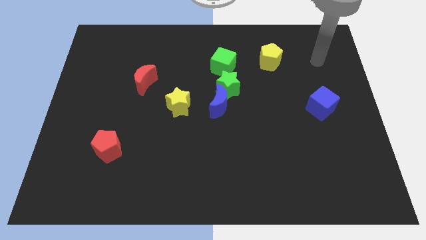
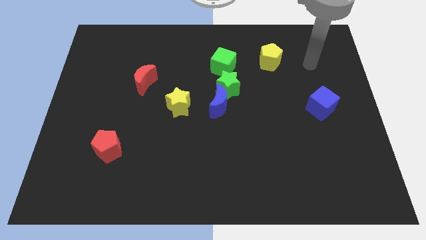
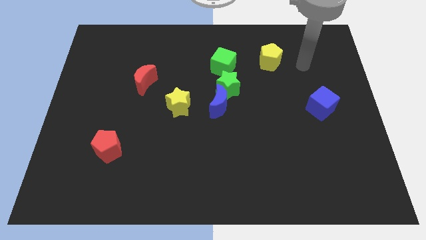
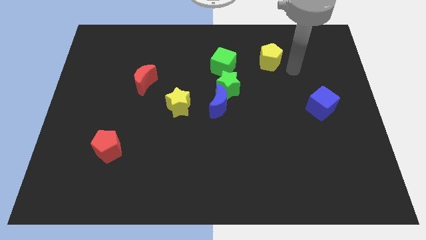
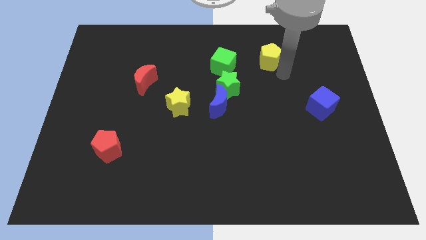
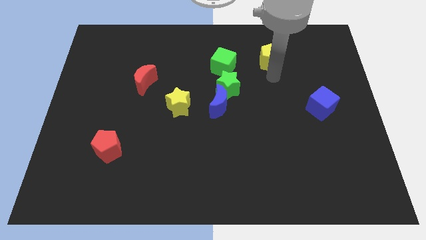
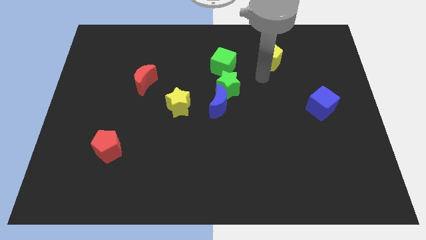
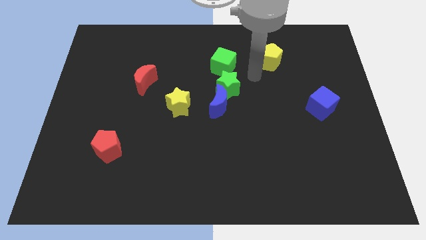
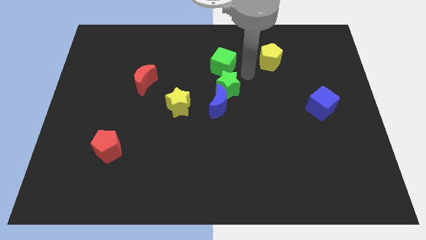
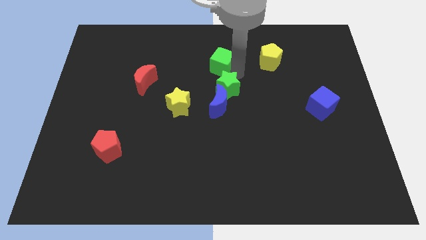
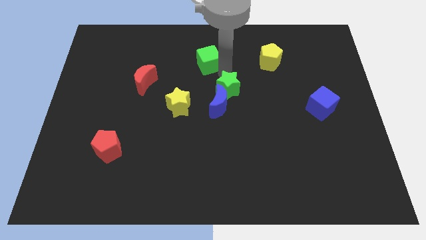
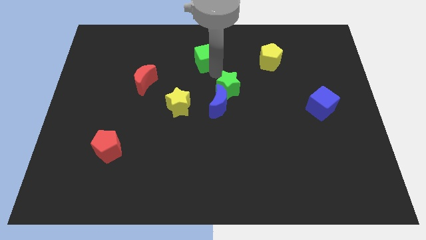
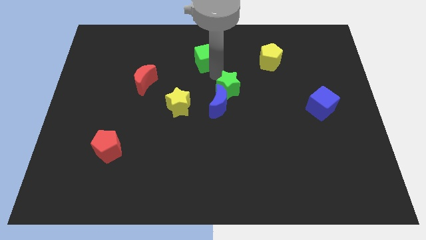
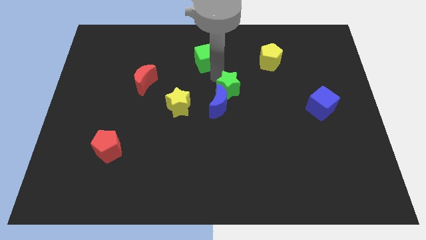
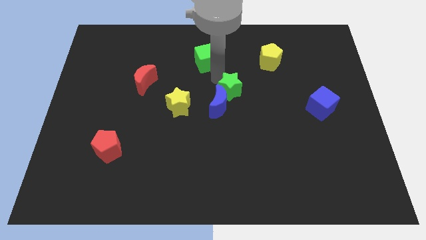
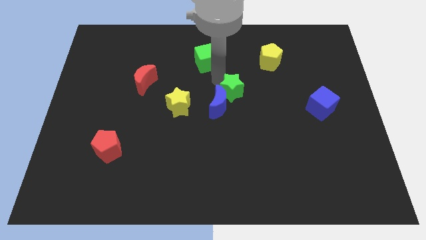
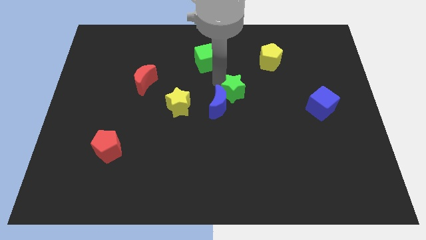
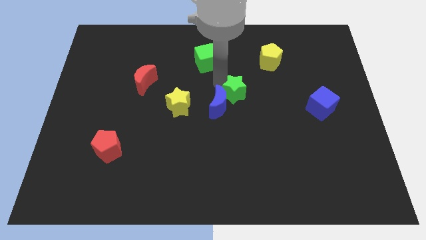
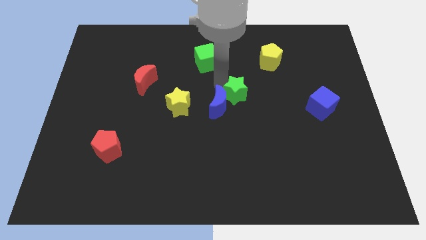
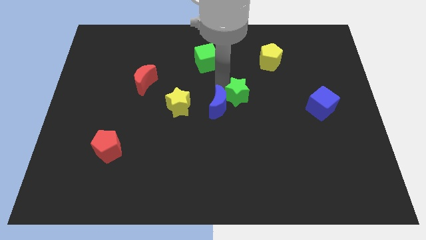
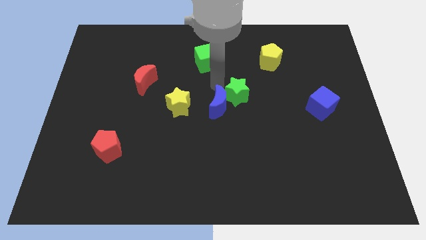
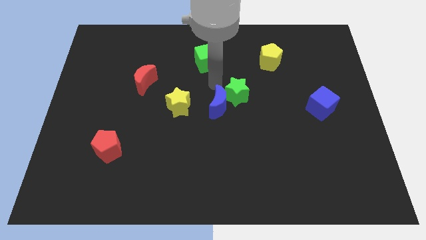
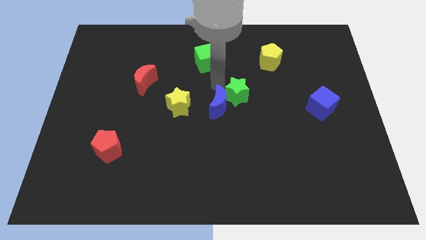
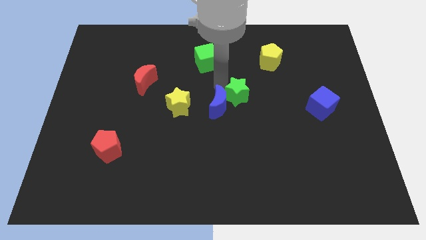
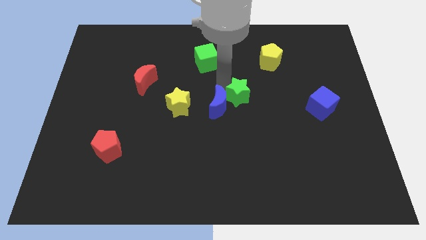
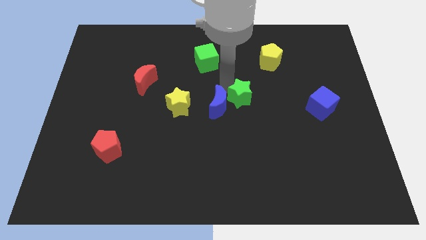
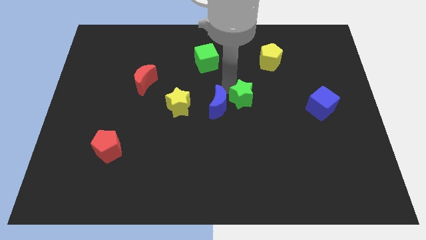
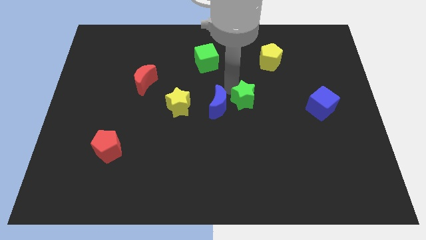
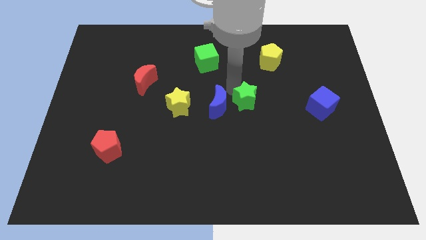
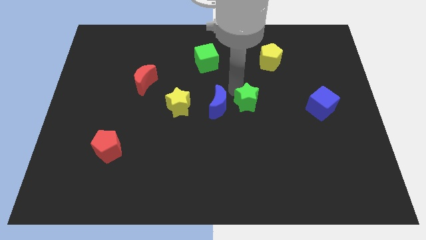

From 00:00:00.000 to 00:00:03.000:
separate the green star from the blue moon and green cube

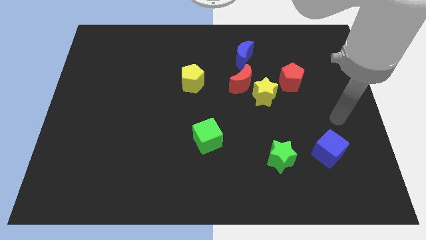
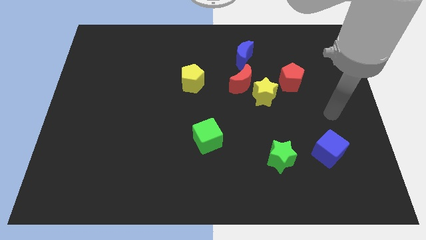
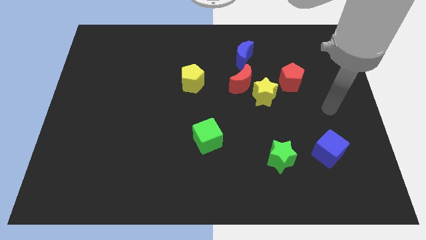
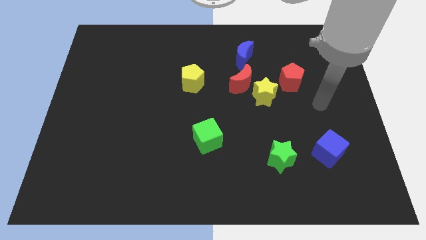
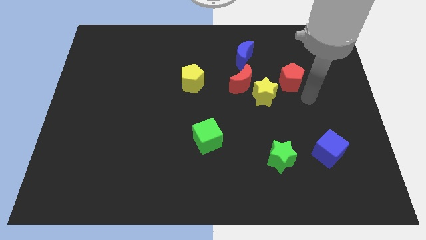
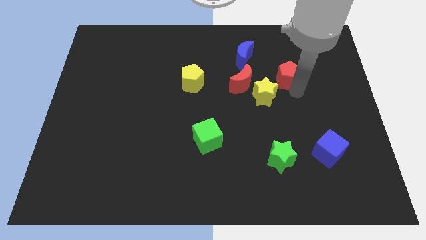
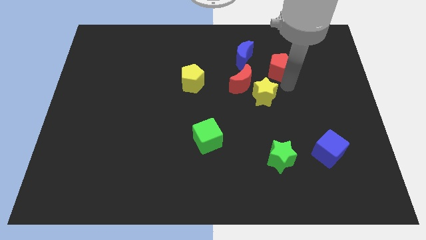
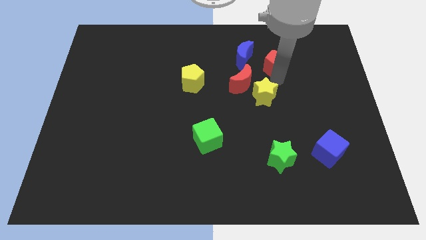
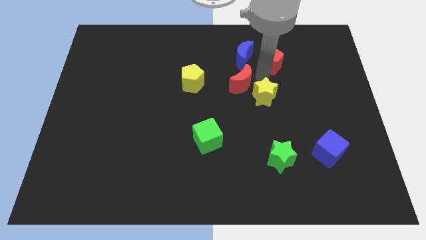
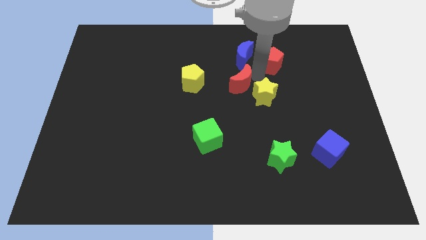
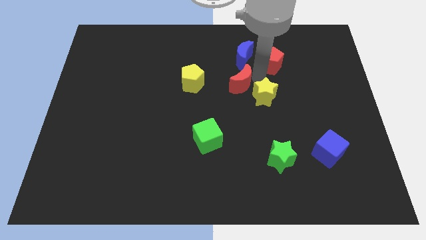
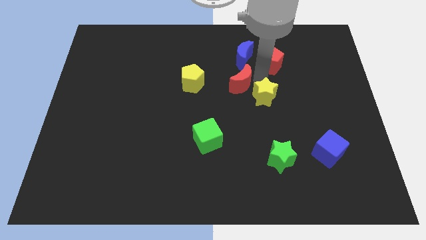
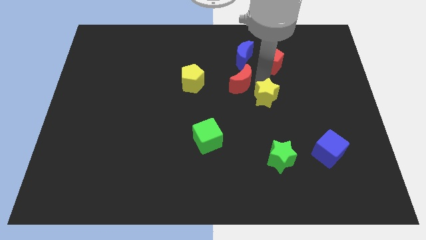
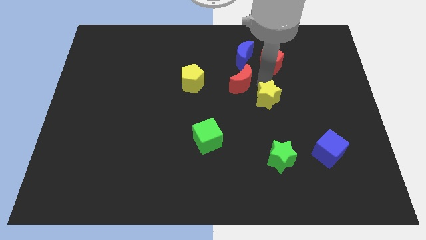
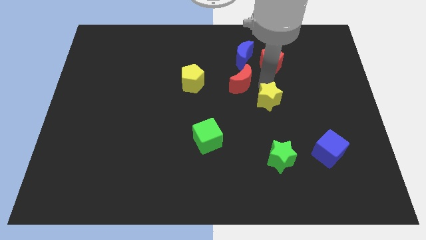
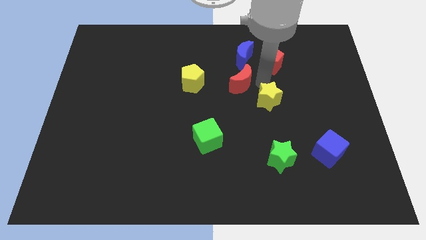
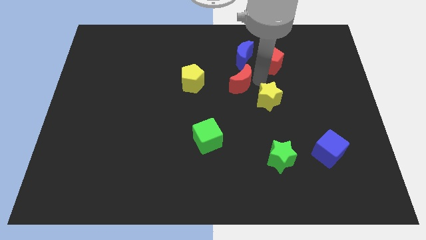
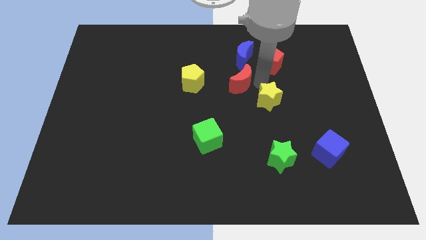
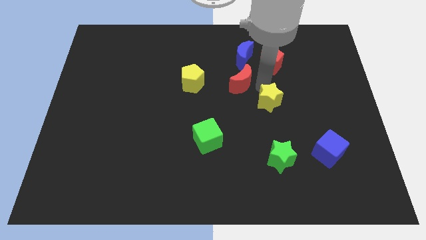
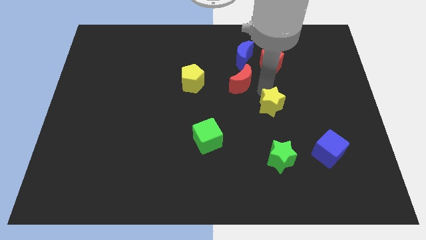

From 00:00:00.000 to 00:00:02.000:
pull the yellow star apart from the red moon and red pentagon

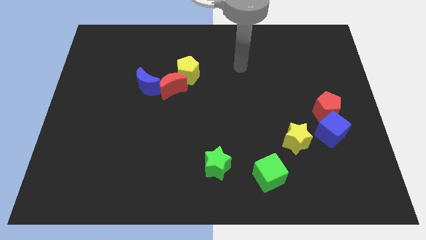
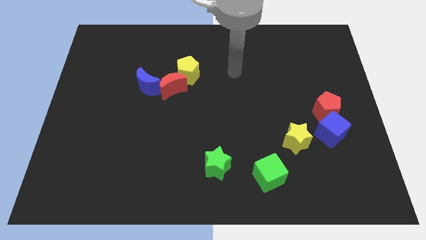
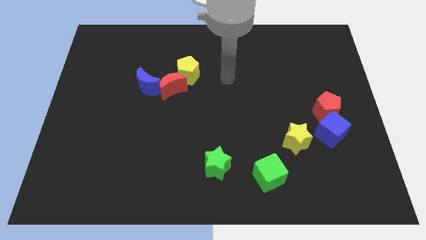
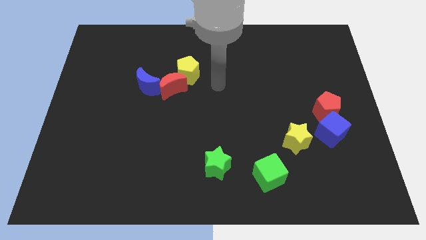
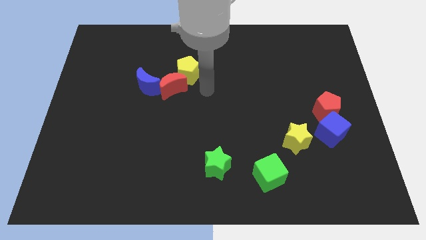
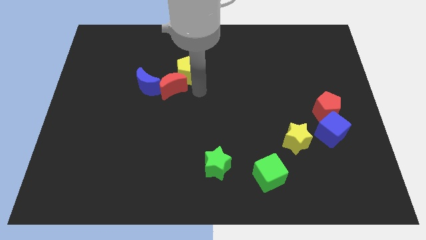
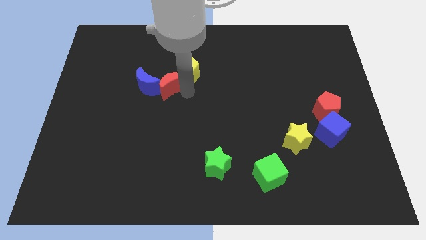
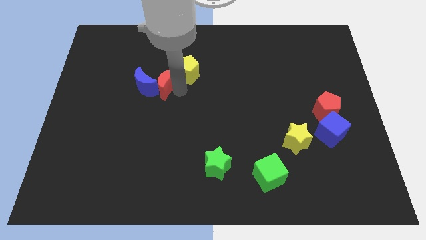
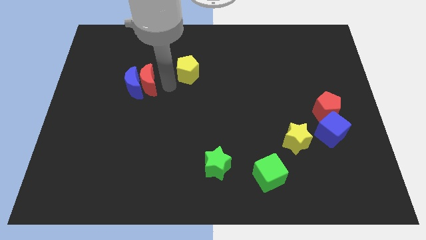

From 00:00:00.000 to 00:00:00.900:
separate the yellow pentagon from the red moon

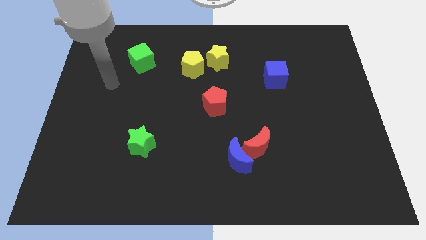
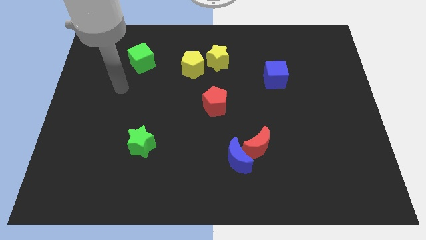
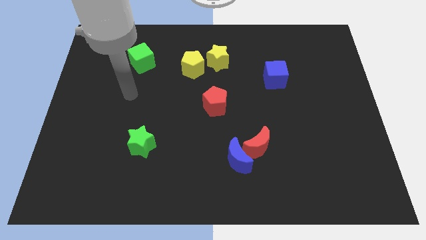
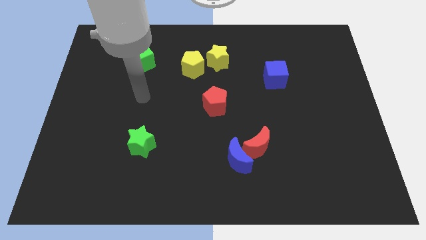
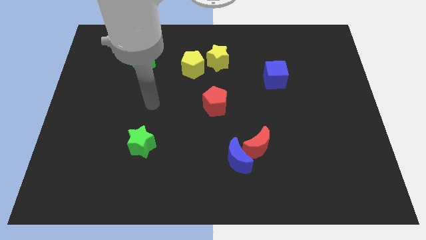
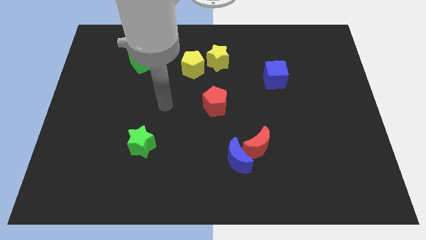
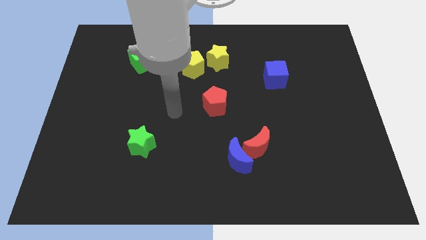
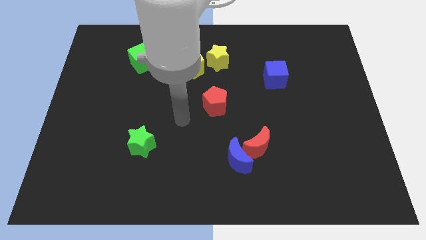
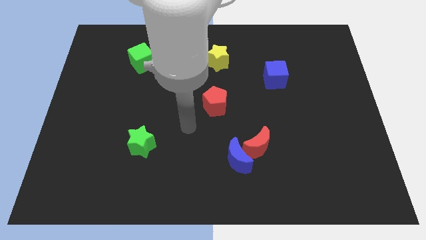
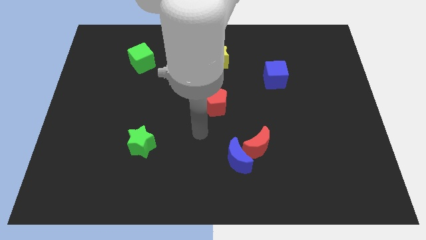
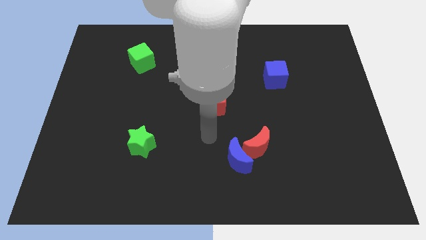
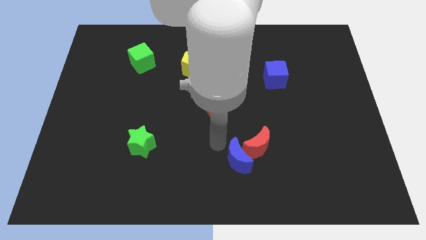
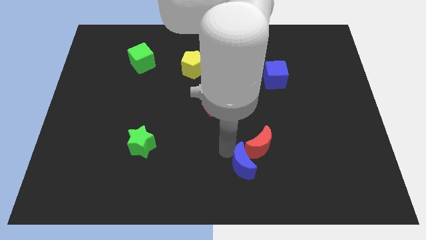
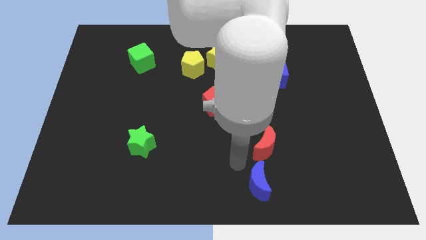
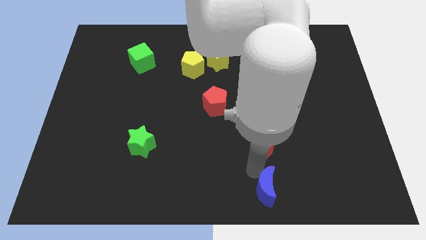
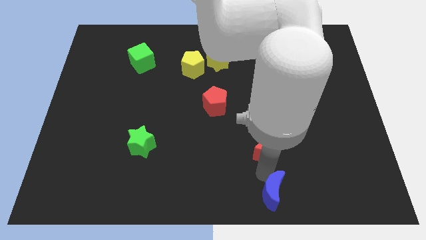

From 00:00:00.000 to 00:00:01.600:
pull the red moon apart from the blue moon

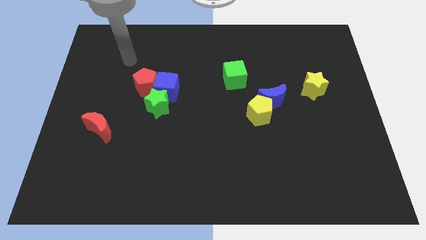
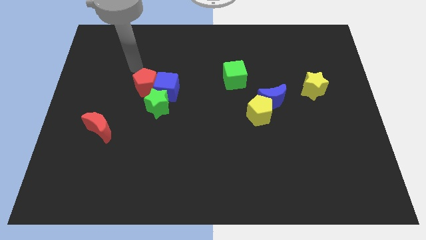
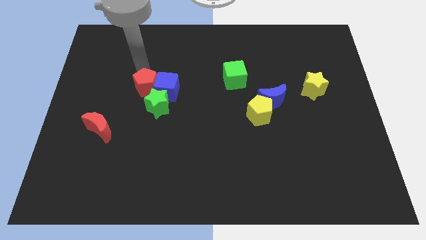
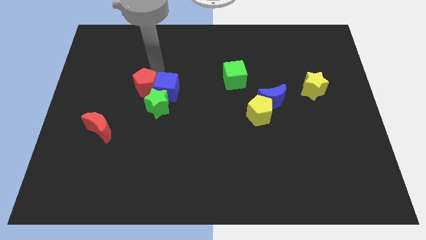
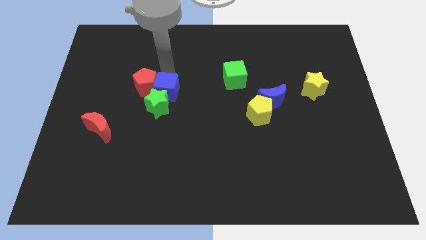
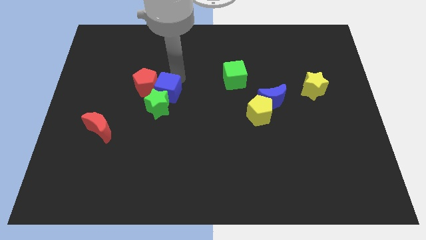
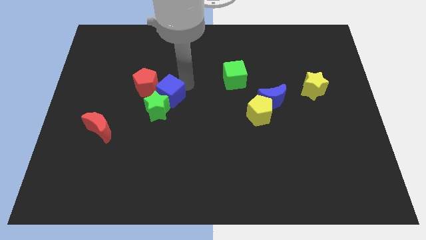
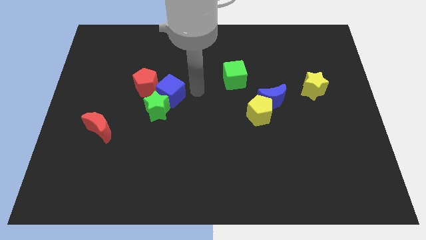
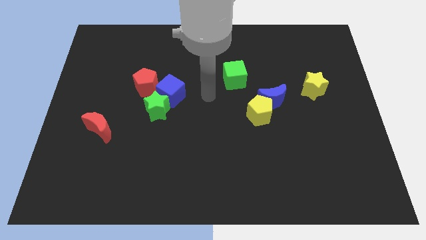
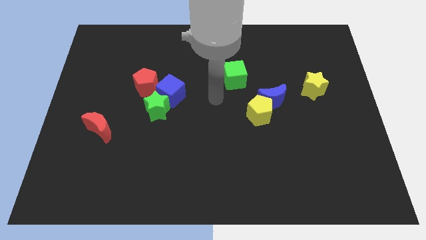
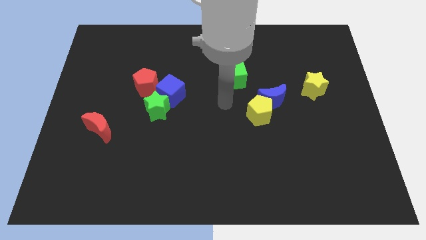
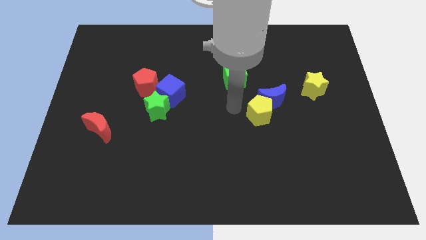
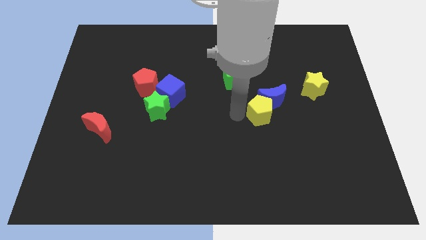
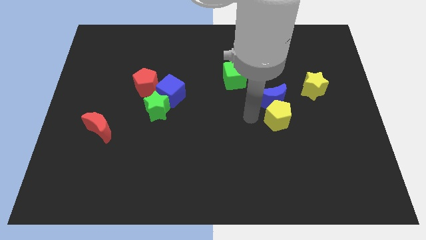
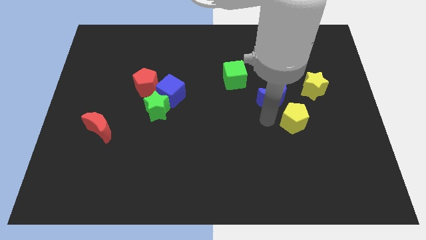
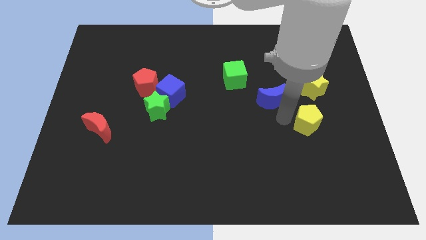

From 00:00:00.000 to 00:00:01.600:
pull the blue moon apart from the yellow pentagon

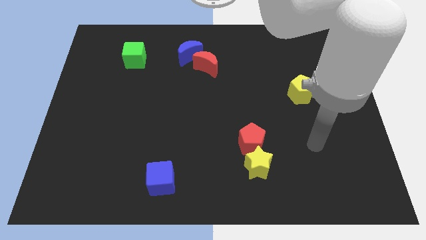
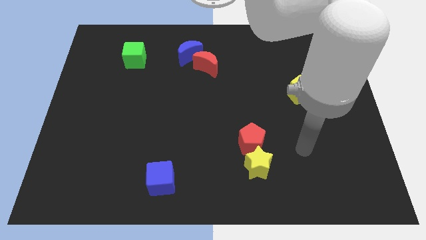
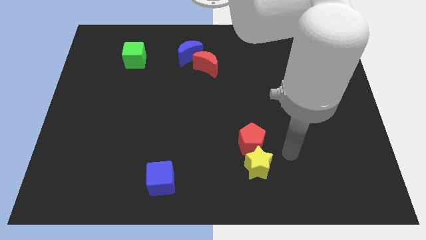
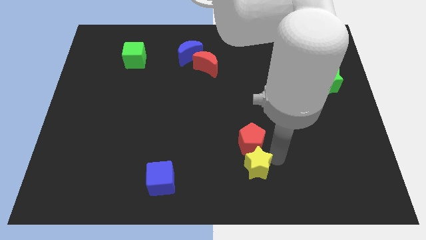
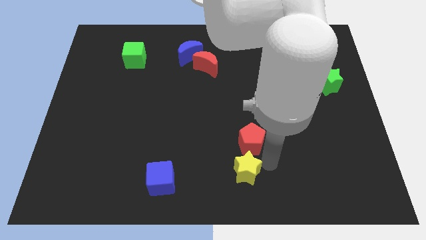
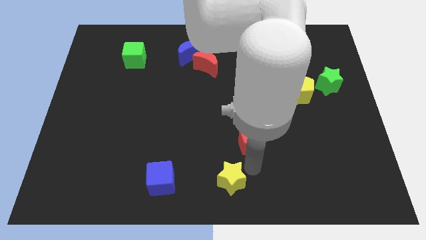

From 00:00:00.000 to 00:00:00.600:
move the red pentagon away from the yellow star
